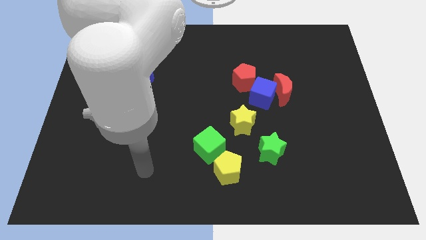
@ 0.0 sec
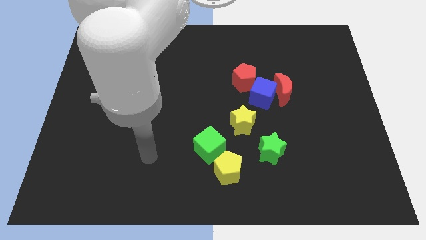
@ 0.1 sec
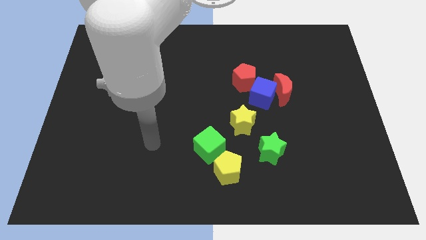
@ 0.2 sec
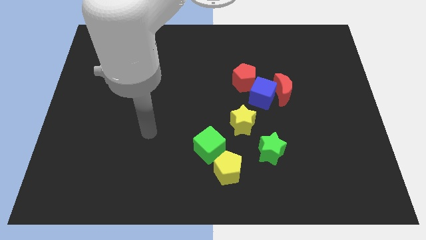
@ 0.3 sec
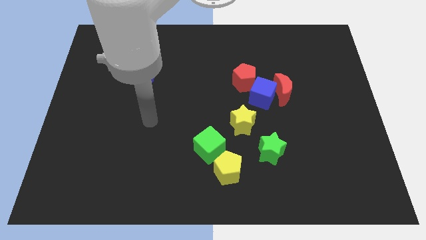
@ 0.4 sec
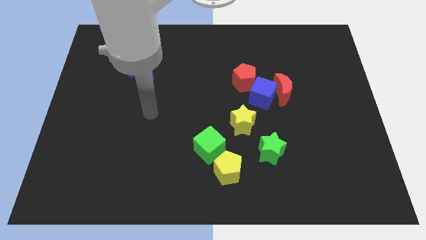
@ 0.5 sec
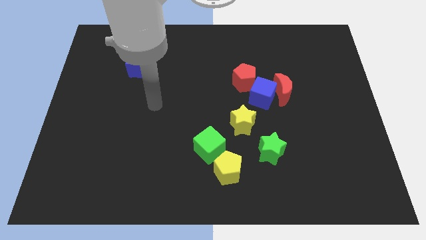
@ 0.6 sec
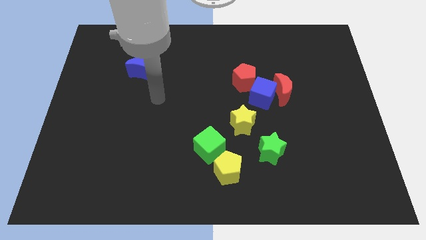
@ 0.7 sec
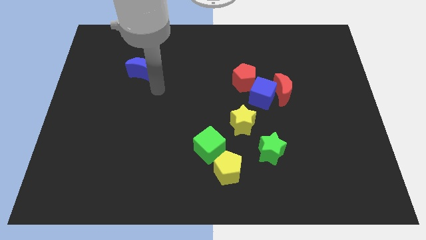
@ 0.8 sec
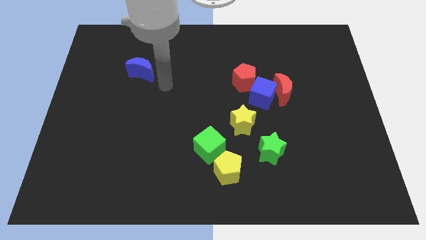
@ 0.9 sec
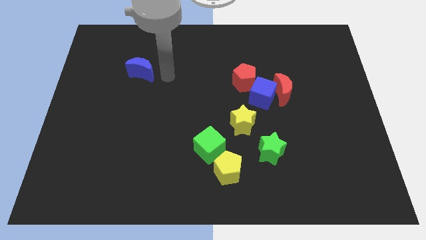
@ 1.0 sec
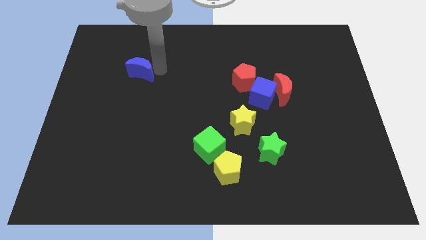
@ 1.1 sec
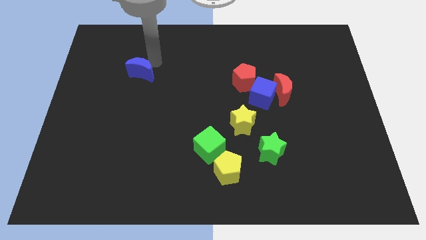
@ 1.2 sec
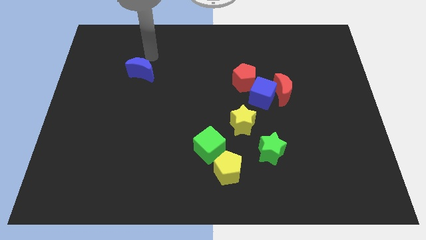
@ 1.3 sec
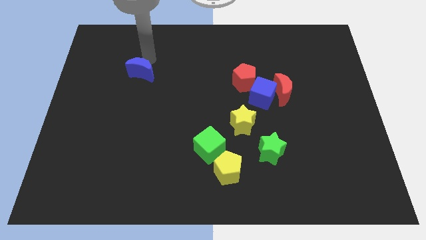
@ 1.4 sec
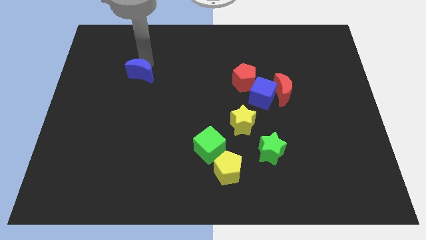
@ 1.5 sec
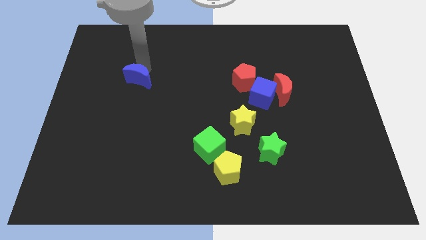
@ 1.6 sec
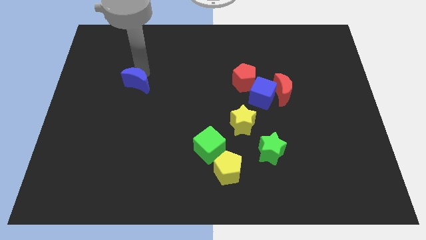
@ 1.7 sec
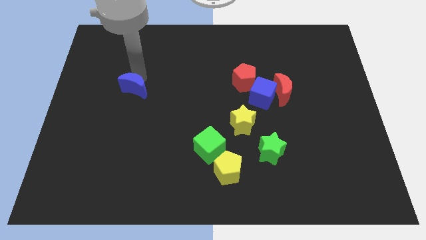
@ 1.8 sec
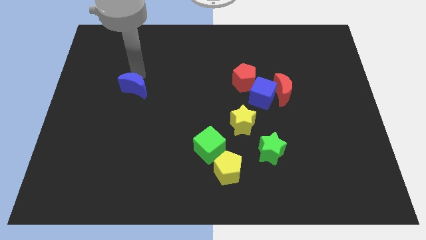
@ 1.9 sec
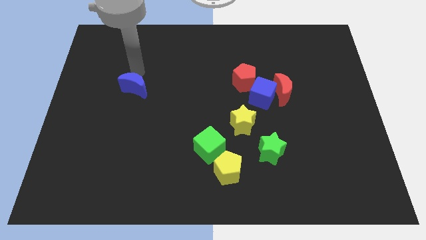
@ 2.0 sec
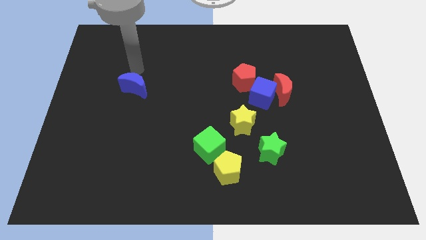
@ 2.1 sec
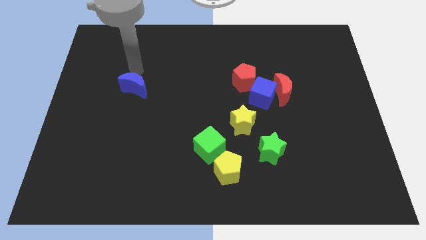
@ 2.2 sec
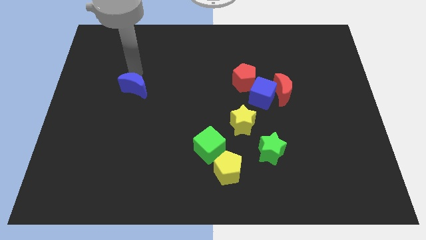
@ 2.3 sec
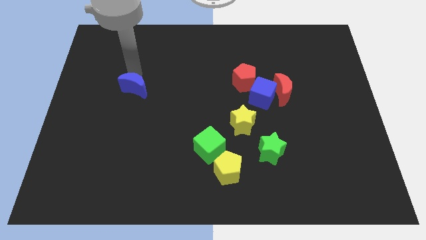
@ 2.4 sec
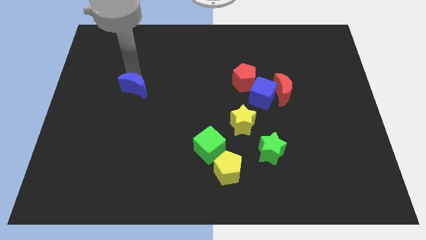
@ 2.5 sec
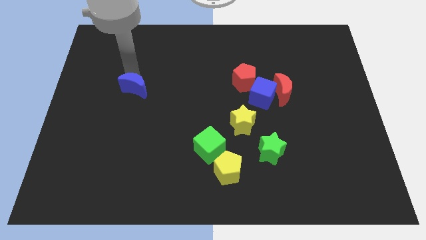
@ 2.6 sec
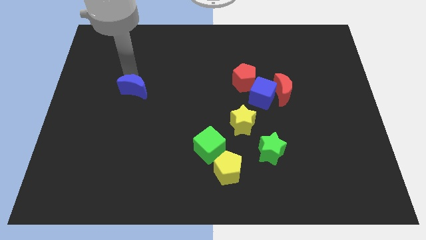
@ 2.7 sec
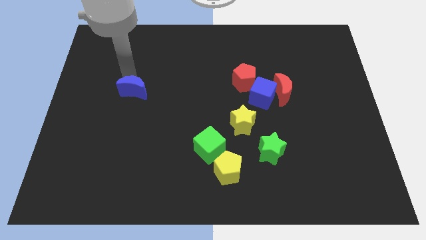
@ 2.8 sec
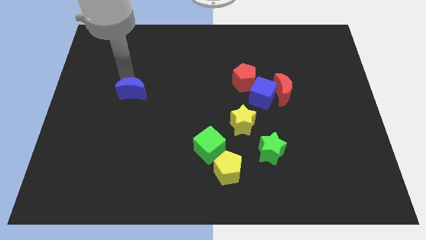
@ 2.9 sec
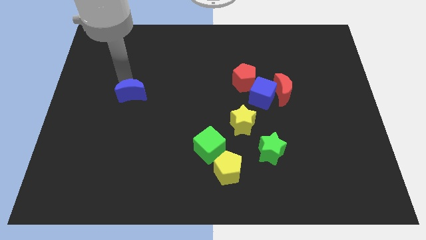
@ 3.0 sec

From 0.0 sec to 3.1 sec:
slightly slide the blue moon down

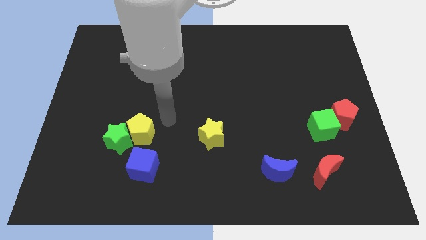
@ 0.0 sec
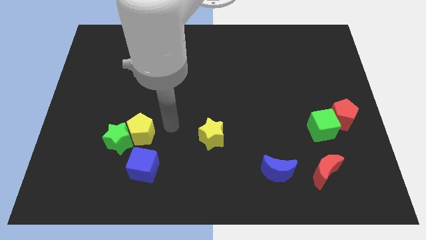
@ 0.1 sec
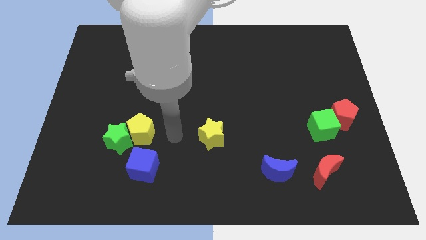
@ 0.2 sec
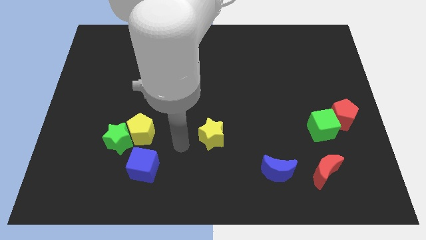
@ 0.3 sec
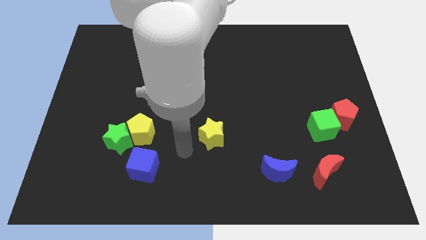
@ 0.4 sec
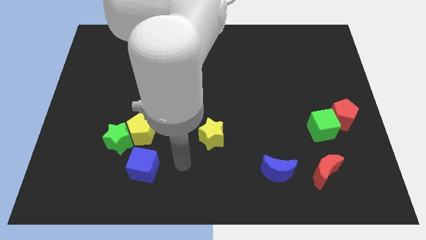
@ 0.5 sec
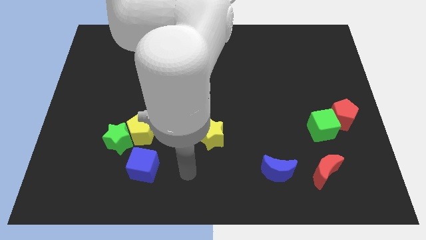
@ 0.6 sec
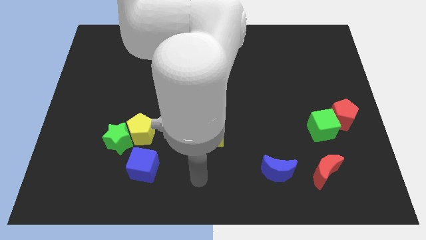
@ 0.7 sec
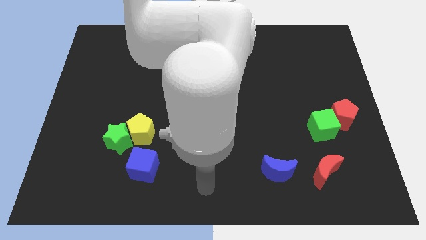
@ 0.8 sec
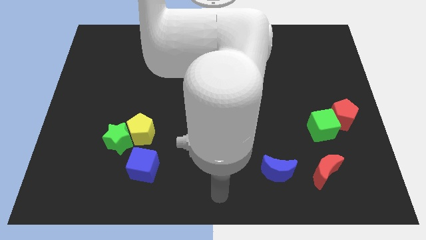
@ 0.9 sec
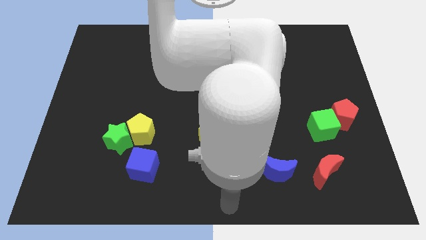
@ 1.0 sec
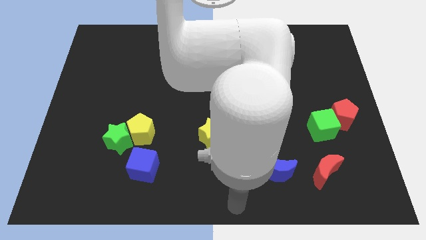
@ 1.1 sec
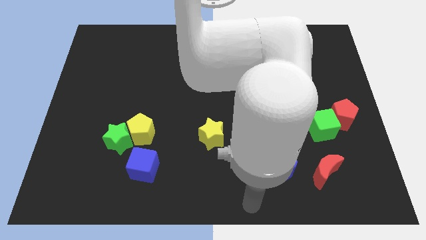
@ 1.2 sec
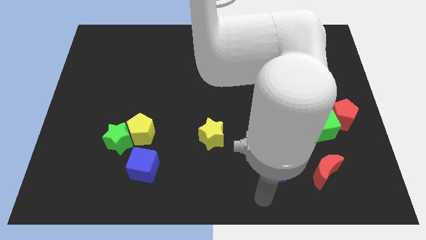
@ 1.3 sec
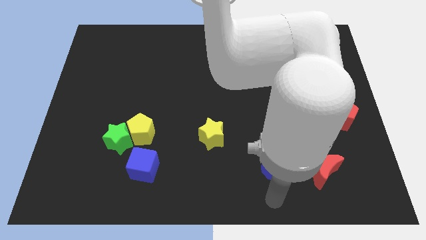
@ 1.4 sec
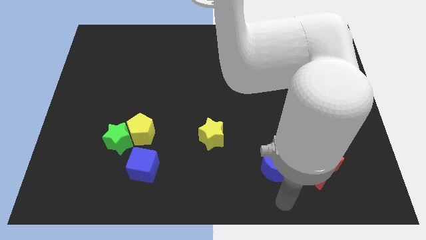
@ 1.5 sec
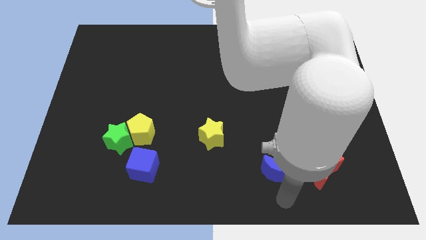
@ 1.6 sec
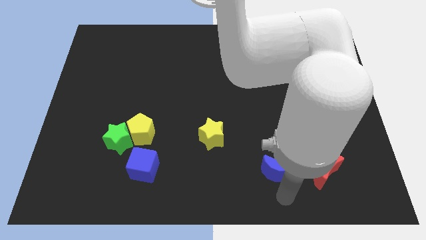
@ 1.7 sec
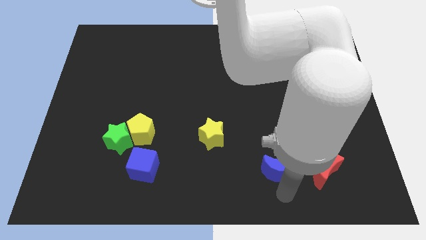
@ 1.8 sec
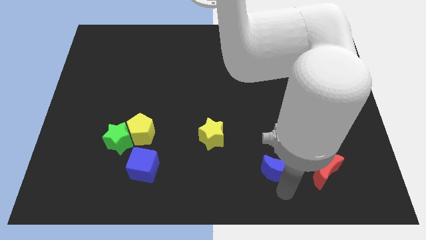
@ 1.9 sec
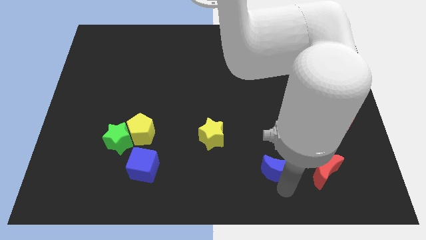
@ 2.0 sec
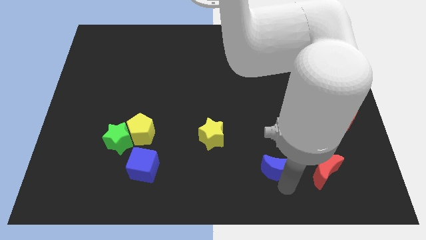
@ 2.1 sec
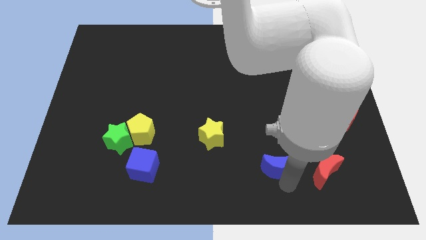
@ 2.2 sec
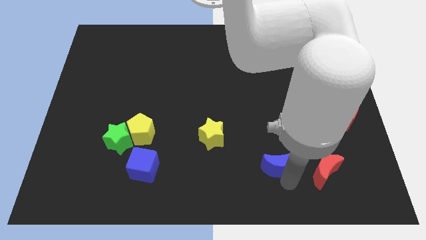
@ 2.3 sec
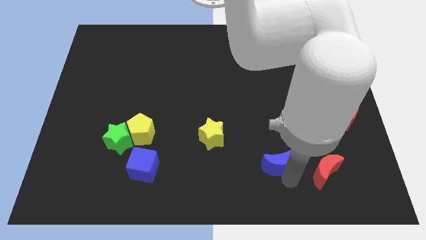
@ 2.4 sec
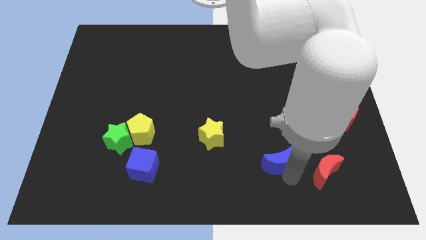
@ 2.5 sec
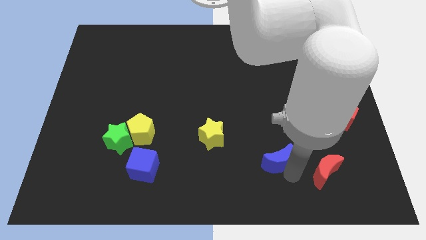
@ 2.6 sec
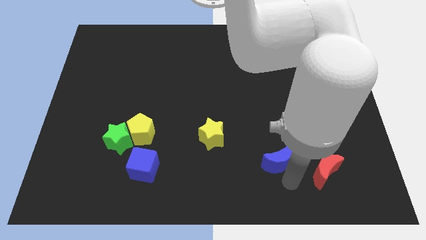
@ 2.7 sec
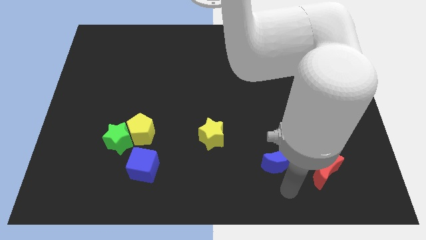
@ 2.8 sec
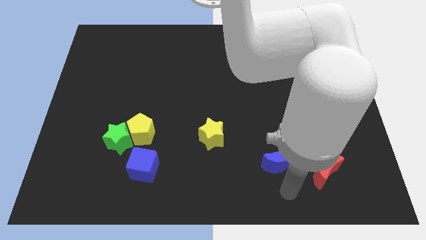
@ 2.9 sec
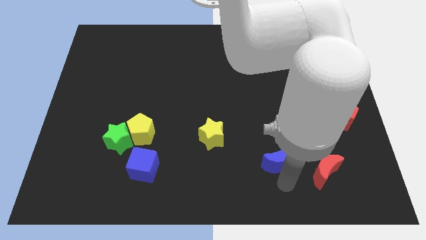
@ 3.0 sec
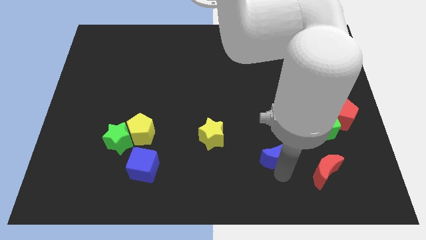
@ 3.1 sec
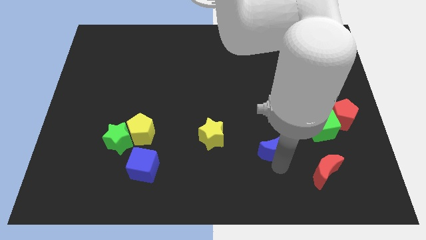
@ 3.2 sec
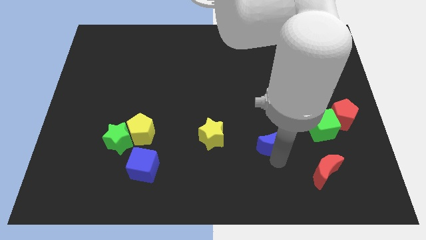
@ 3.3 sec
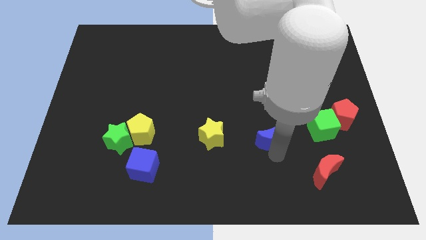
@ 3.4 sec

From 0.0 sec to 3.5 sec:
slightly push the blue moon upwards

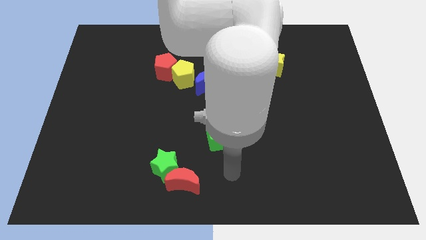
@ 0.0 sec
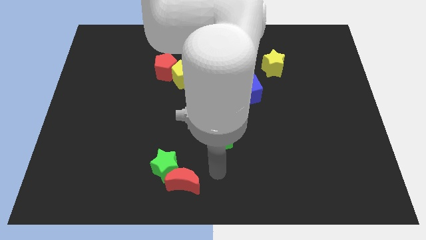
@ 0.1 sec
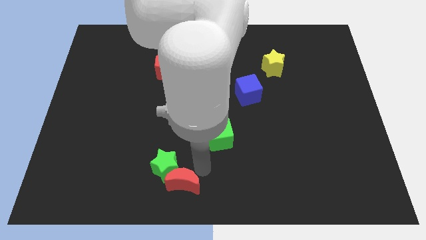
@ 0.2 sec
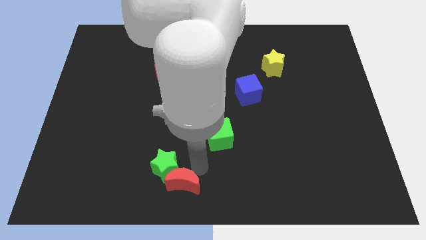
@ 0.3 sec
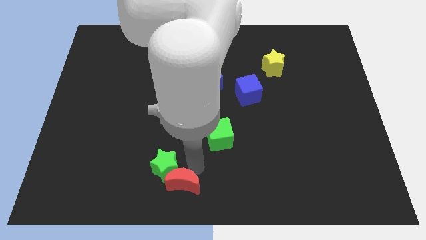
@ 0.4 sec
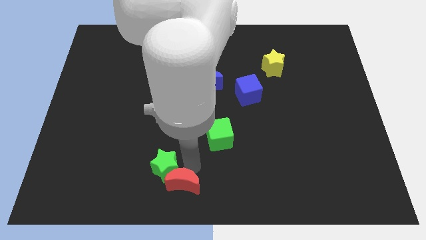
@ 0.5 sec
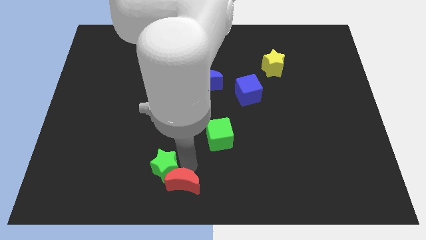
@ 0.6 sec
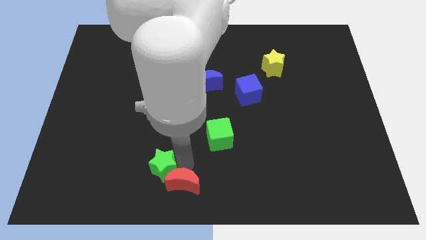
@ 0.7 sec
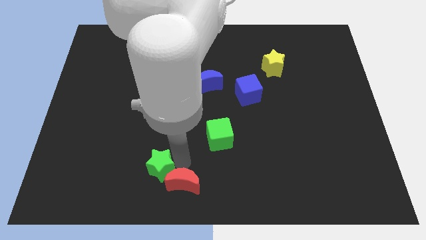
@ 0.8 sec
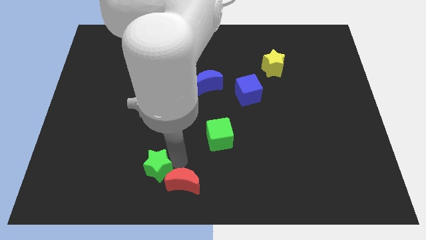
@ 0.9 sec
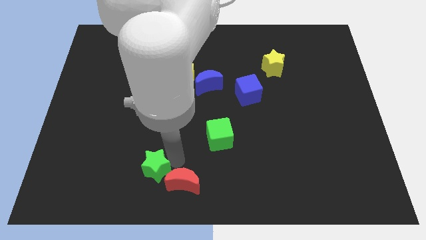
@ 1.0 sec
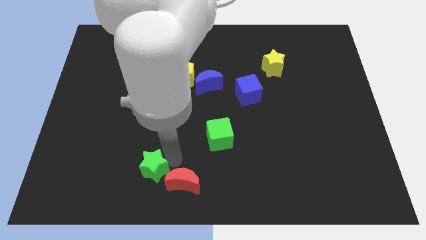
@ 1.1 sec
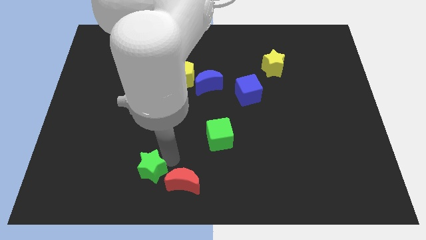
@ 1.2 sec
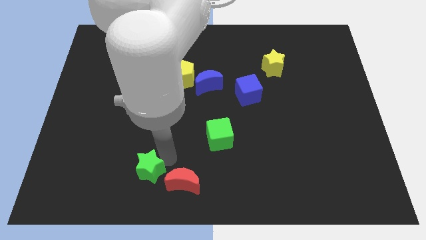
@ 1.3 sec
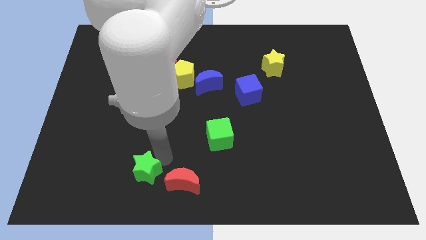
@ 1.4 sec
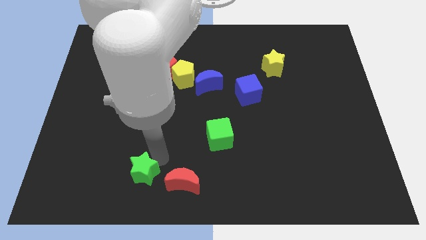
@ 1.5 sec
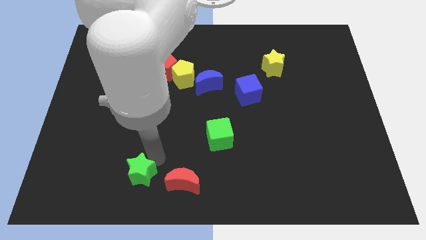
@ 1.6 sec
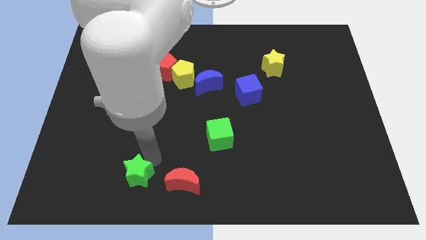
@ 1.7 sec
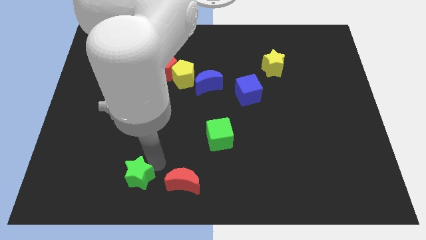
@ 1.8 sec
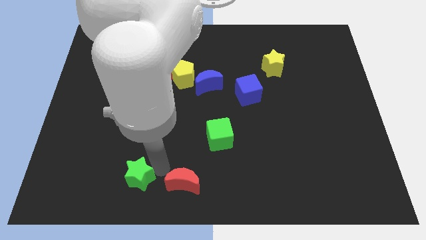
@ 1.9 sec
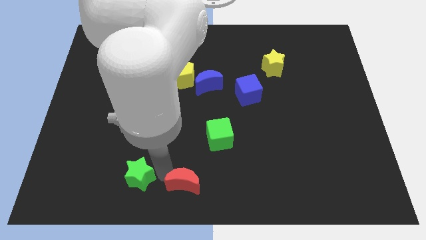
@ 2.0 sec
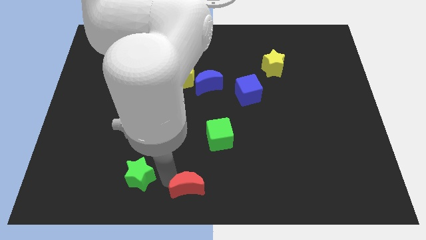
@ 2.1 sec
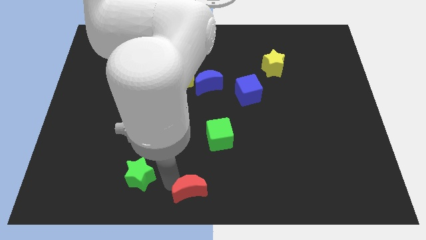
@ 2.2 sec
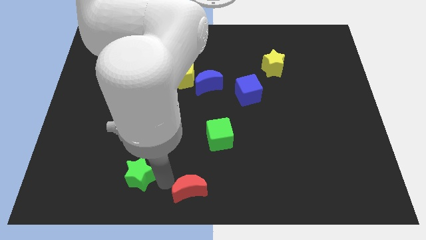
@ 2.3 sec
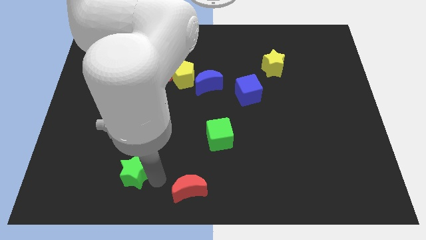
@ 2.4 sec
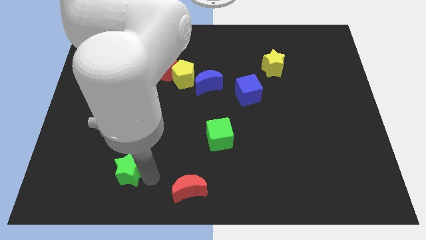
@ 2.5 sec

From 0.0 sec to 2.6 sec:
slightly move the green star left
